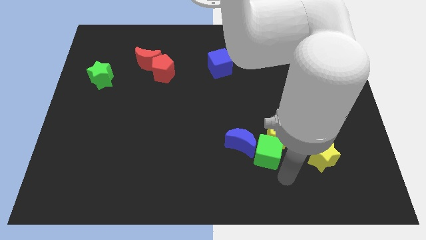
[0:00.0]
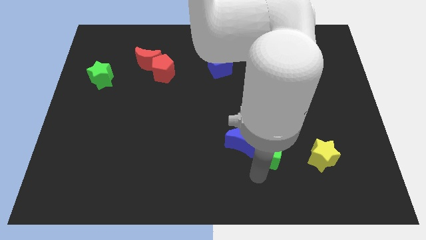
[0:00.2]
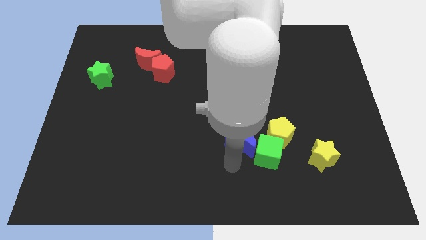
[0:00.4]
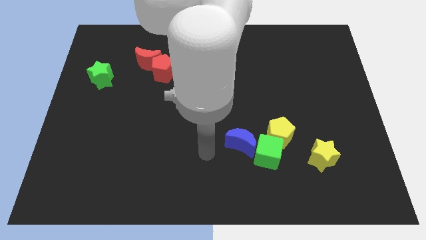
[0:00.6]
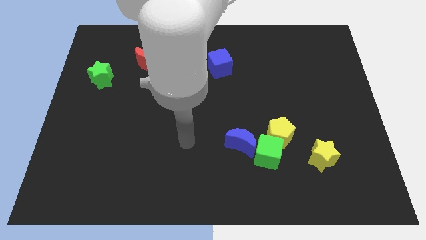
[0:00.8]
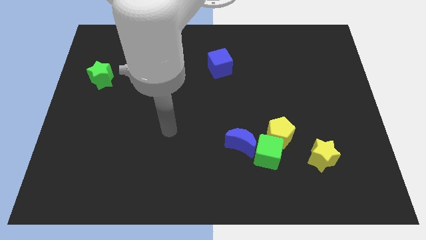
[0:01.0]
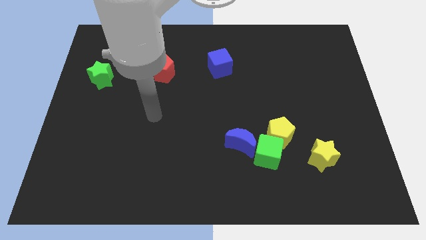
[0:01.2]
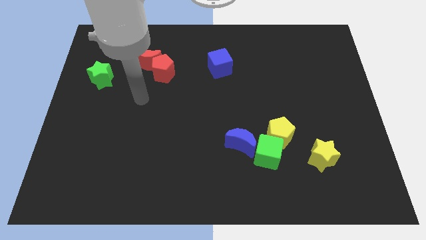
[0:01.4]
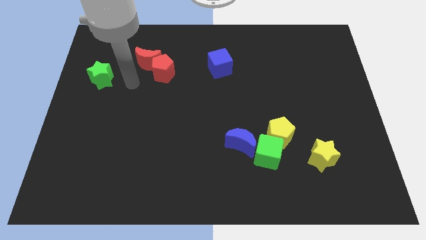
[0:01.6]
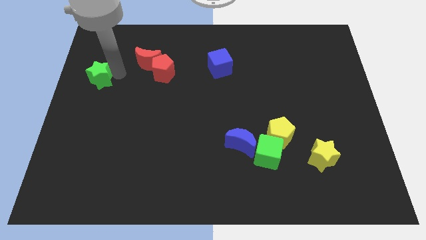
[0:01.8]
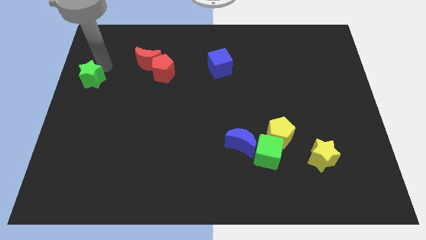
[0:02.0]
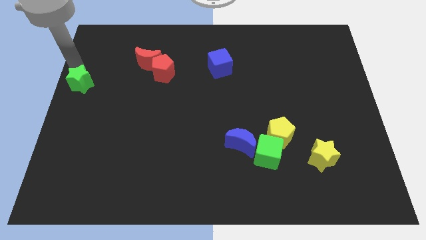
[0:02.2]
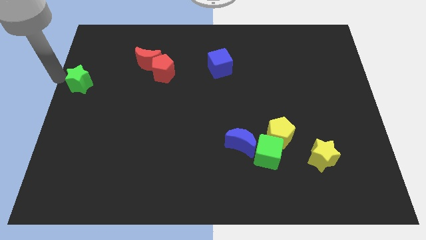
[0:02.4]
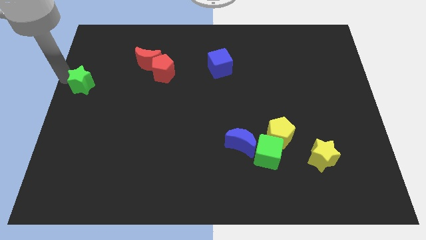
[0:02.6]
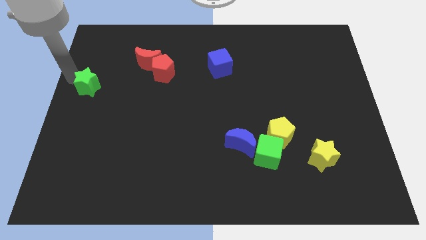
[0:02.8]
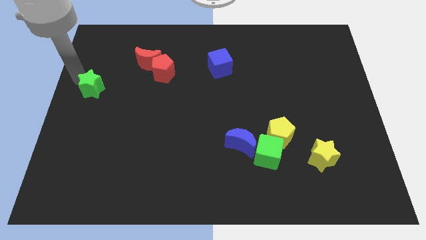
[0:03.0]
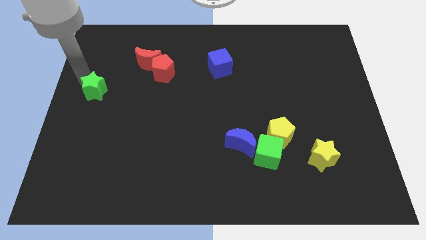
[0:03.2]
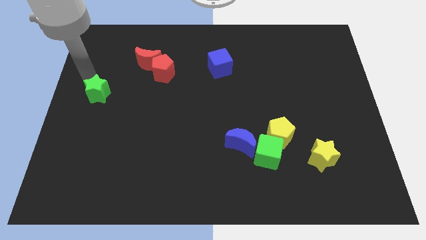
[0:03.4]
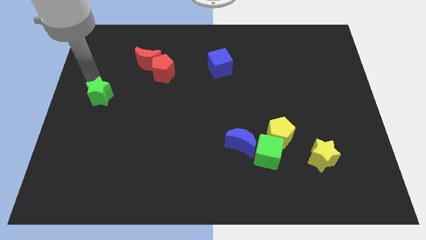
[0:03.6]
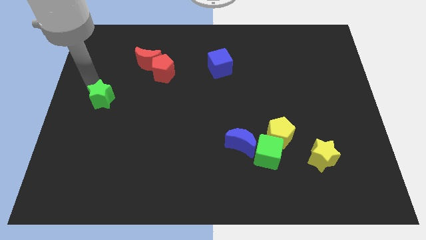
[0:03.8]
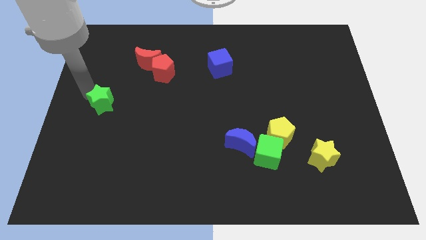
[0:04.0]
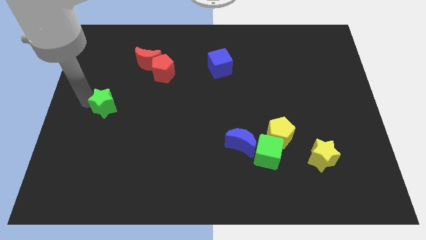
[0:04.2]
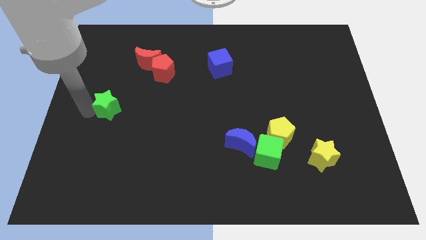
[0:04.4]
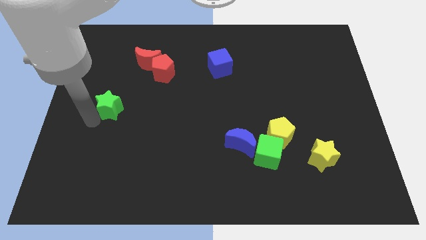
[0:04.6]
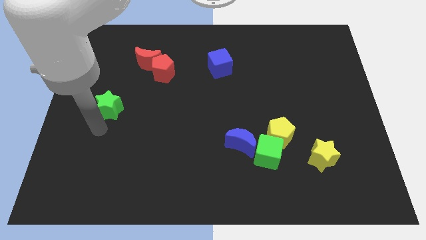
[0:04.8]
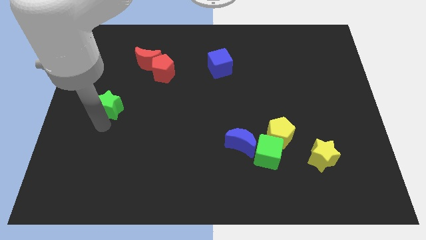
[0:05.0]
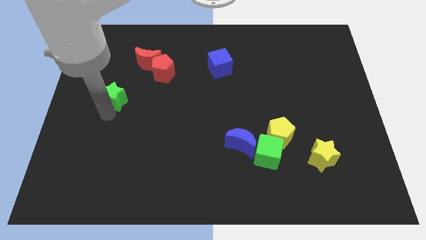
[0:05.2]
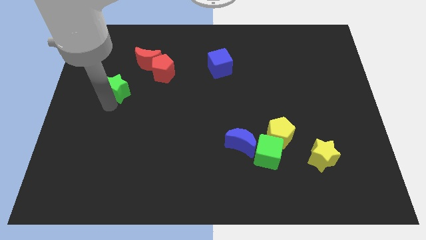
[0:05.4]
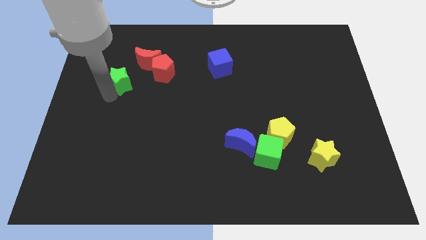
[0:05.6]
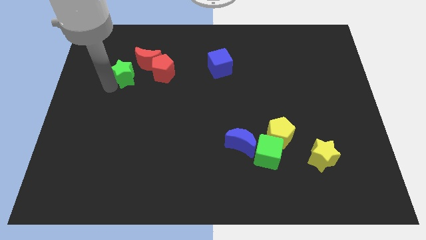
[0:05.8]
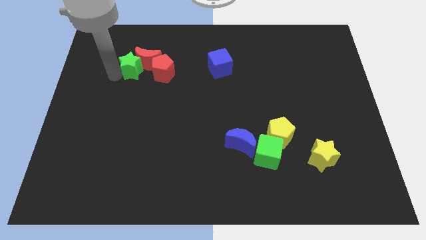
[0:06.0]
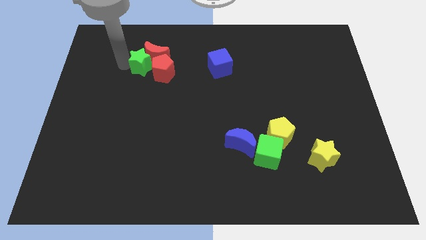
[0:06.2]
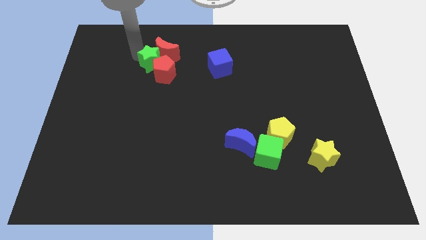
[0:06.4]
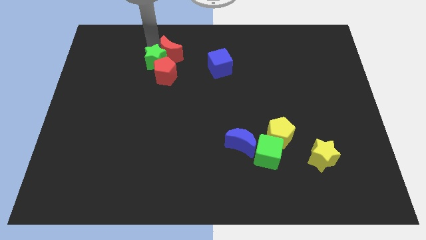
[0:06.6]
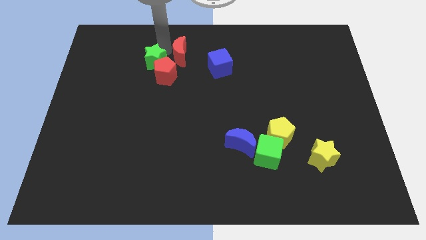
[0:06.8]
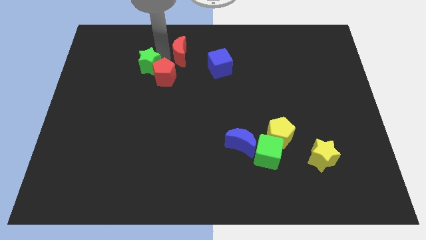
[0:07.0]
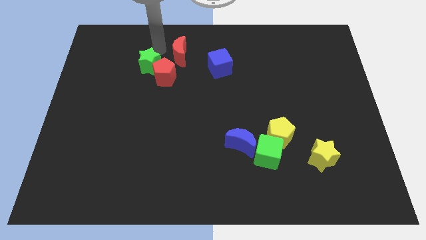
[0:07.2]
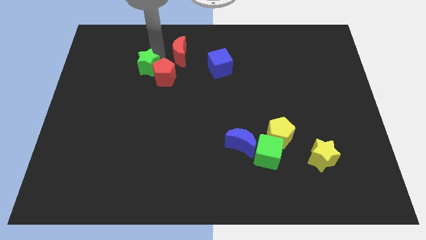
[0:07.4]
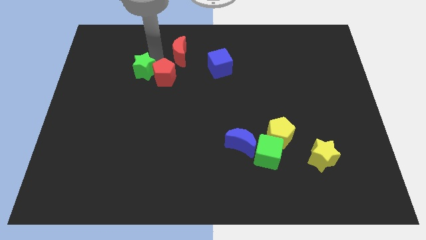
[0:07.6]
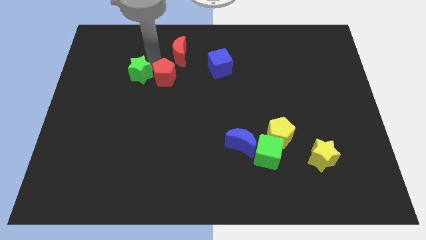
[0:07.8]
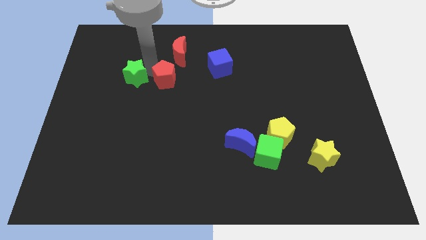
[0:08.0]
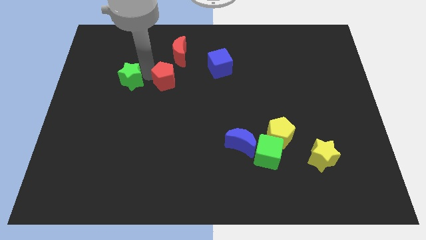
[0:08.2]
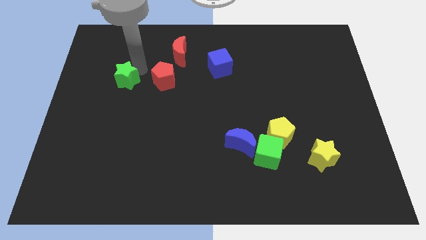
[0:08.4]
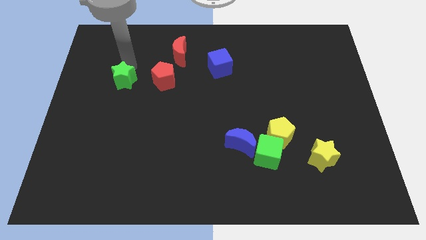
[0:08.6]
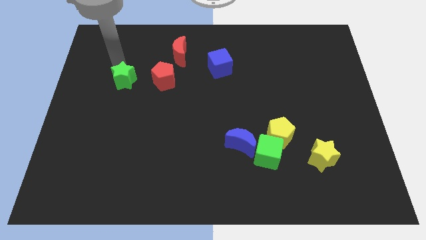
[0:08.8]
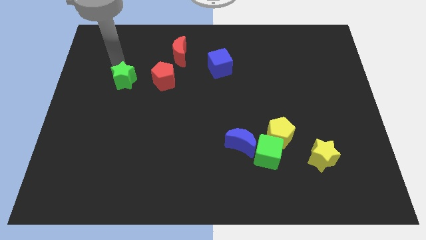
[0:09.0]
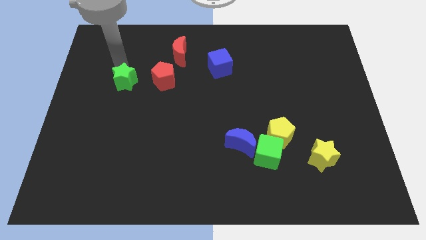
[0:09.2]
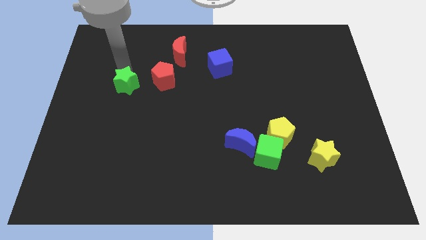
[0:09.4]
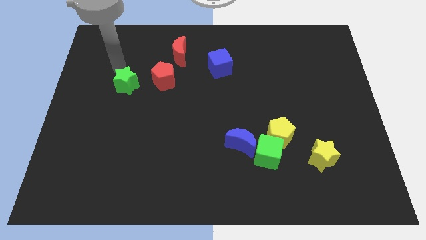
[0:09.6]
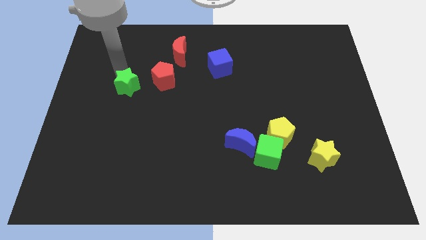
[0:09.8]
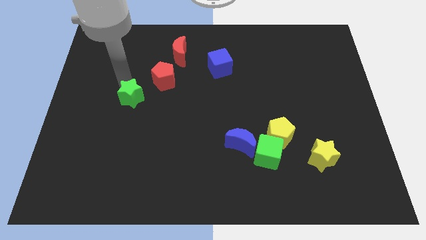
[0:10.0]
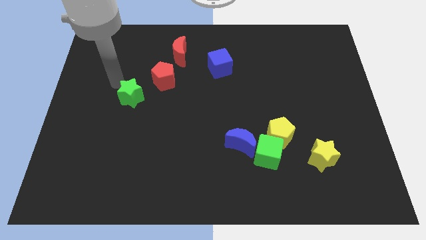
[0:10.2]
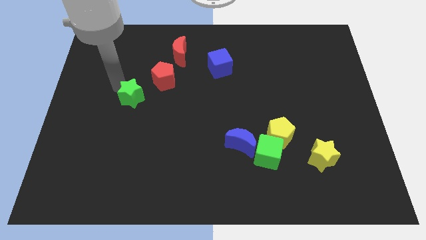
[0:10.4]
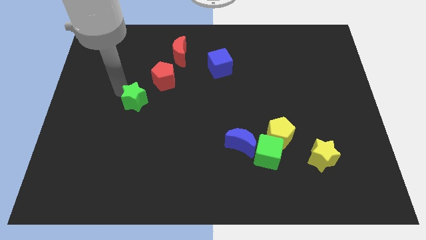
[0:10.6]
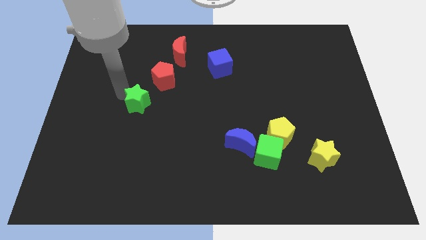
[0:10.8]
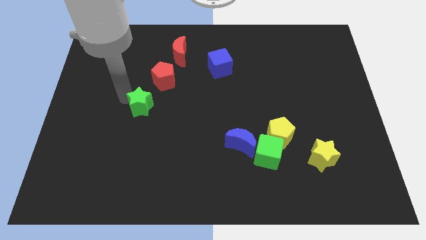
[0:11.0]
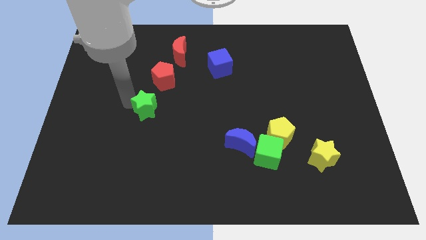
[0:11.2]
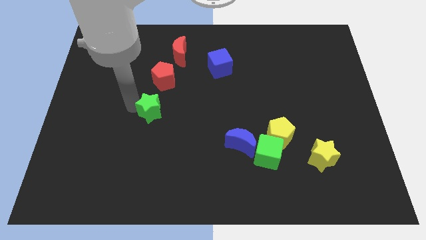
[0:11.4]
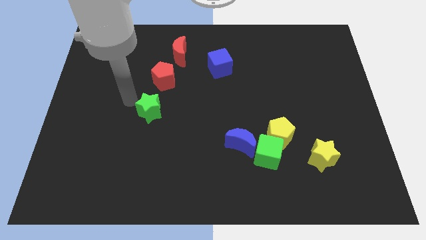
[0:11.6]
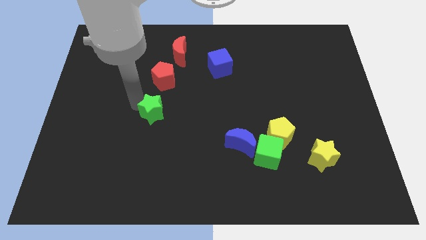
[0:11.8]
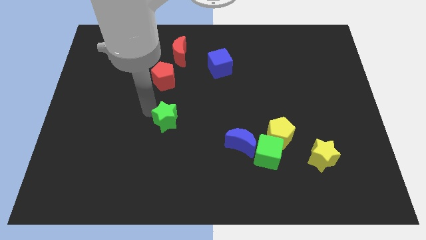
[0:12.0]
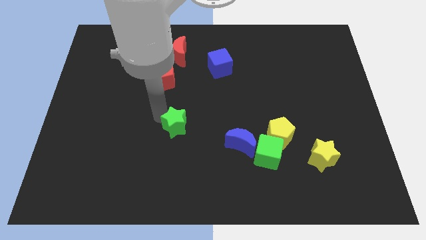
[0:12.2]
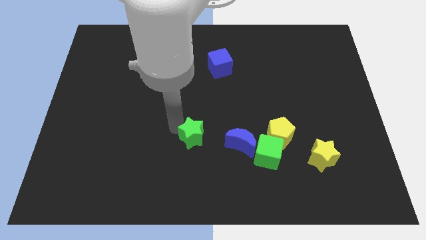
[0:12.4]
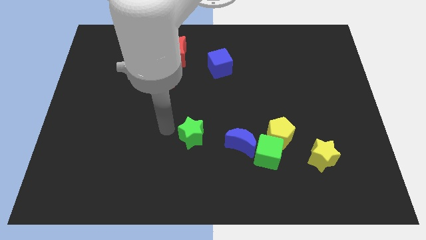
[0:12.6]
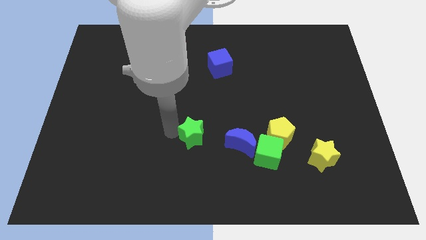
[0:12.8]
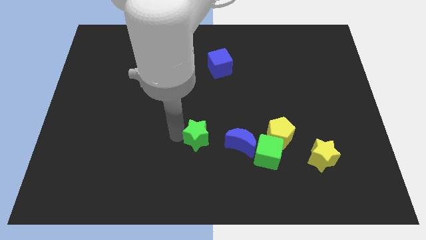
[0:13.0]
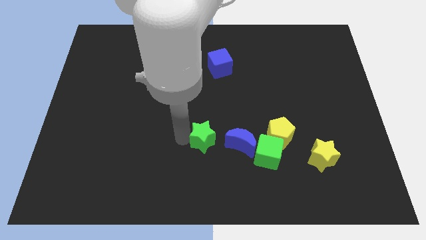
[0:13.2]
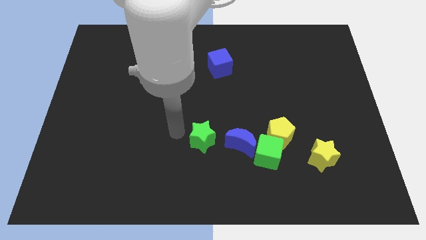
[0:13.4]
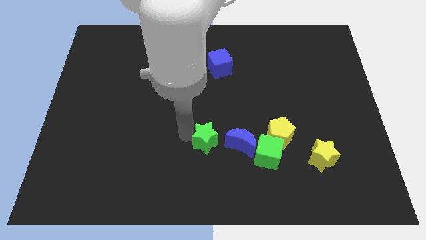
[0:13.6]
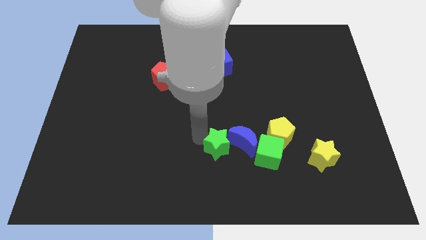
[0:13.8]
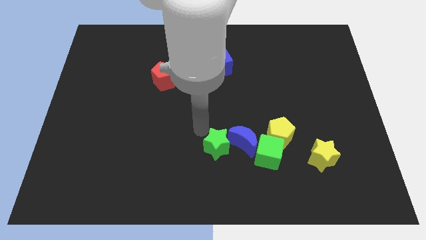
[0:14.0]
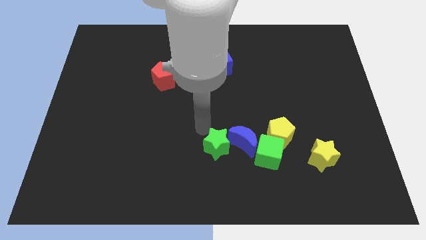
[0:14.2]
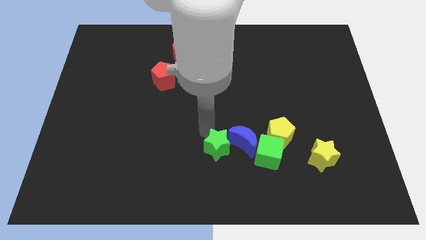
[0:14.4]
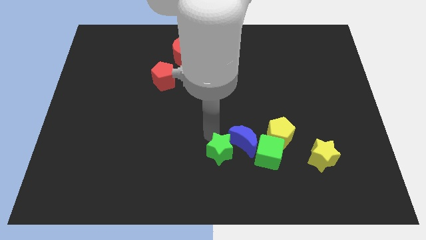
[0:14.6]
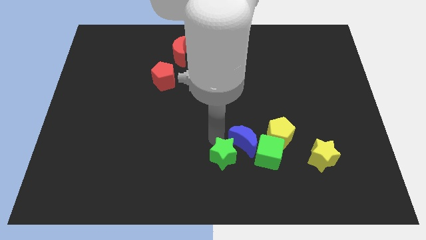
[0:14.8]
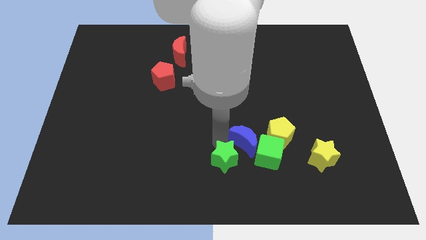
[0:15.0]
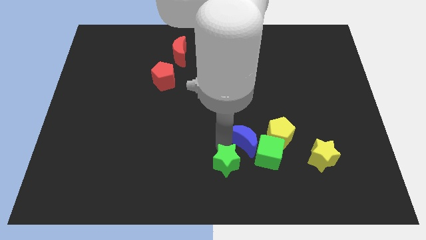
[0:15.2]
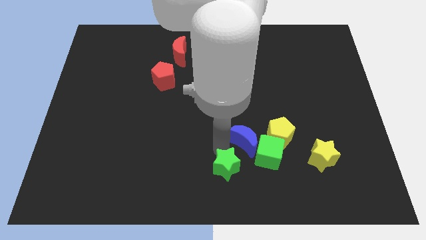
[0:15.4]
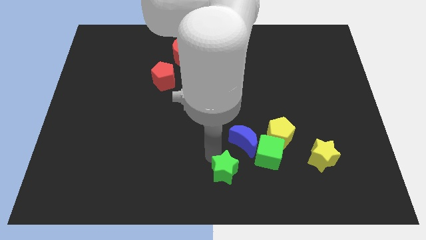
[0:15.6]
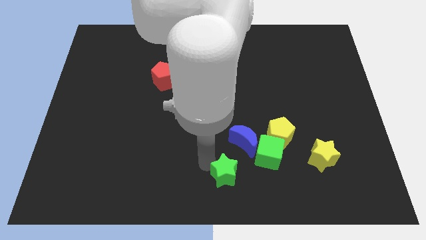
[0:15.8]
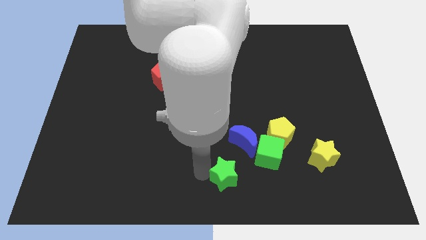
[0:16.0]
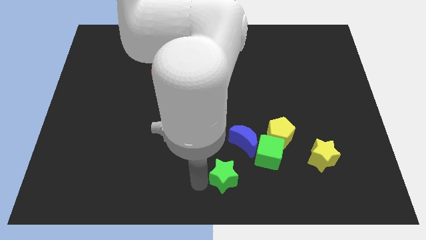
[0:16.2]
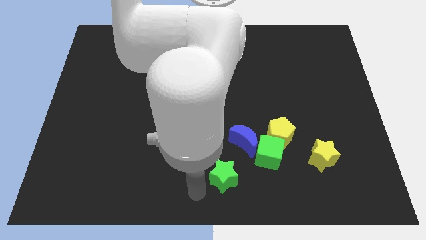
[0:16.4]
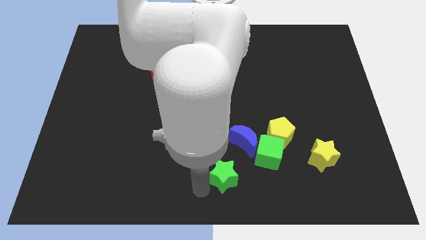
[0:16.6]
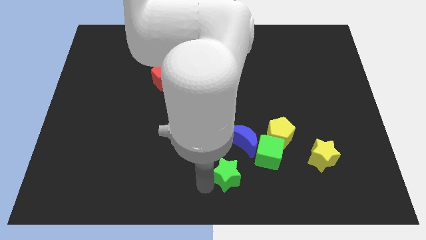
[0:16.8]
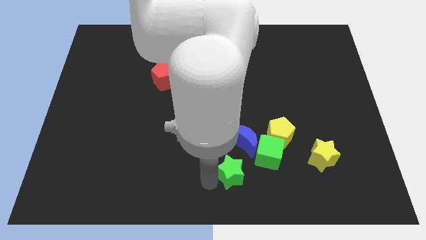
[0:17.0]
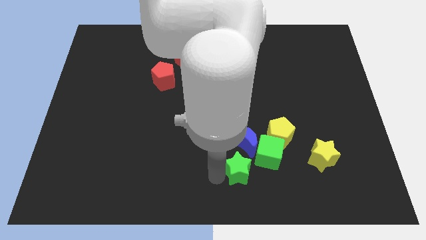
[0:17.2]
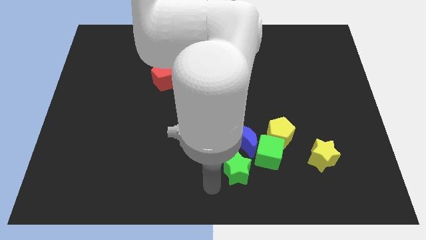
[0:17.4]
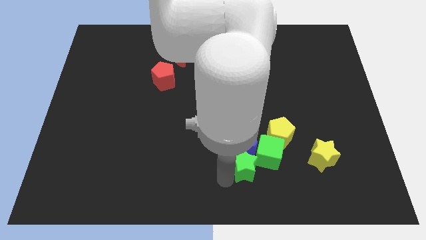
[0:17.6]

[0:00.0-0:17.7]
put the green star next to the green cube
